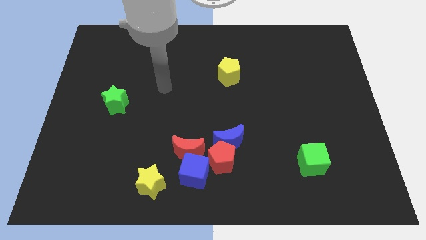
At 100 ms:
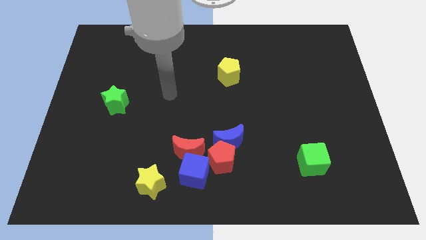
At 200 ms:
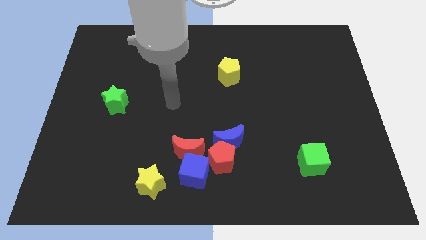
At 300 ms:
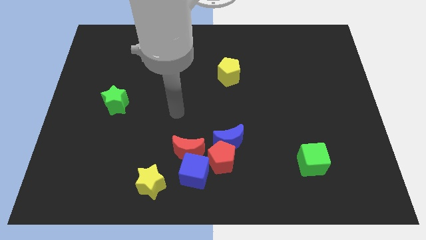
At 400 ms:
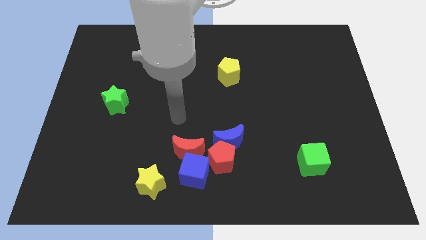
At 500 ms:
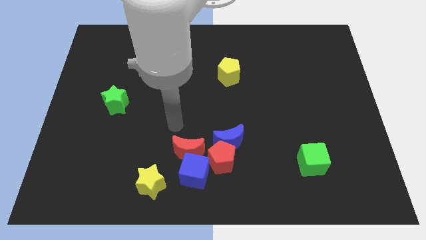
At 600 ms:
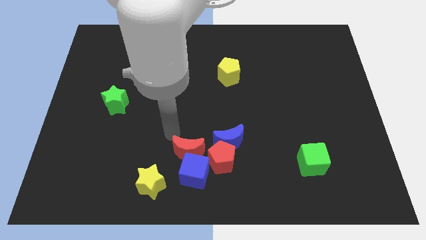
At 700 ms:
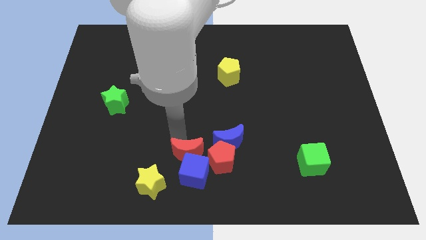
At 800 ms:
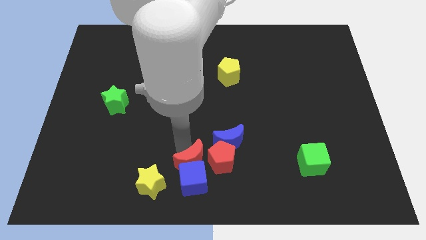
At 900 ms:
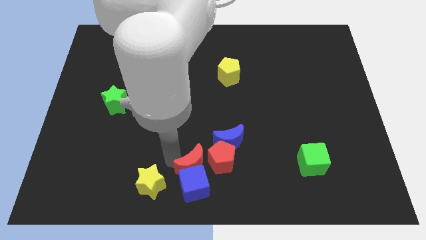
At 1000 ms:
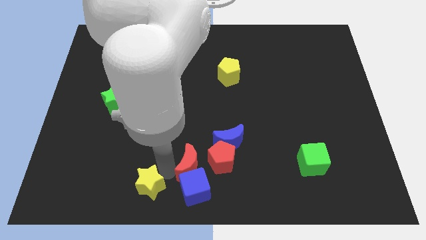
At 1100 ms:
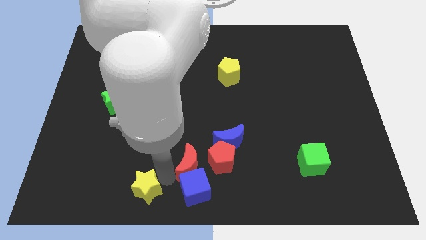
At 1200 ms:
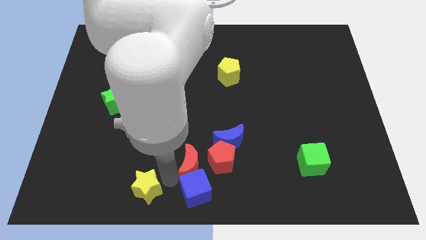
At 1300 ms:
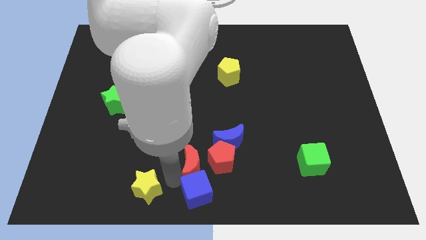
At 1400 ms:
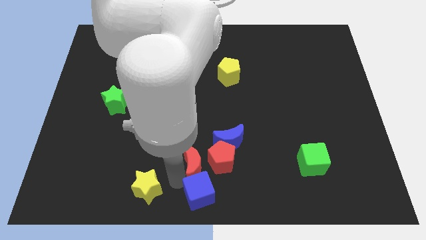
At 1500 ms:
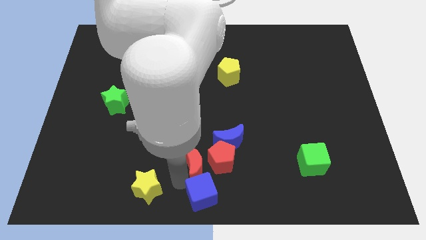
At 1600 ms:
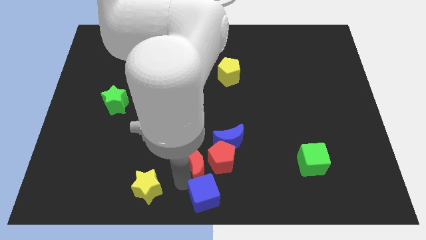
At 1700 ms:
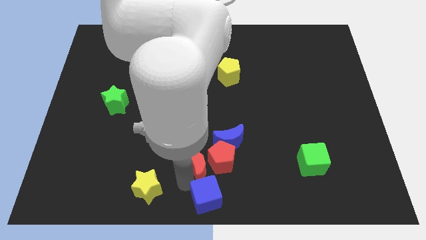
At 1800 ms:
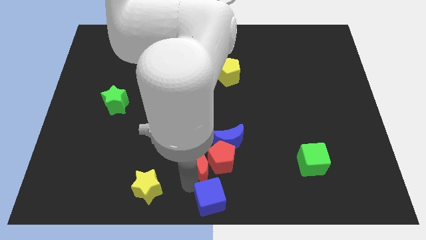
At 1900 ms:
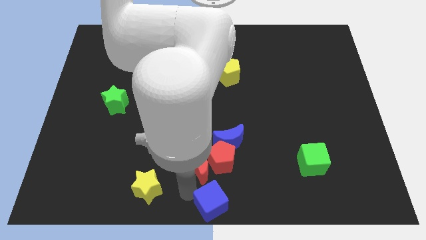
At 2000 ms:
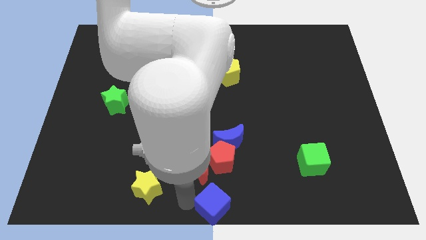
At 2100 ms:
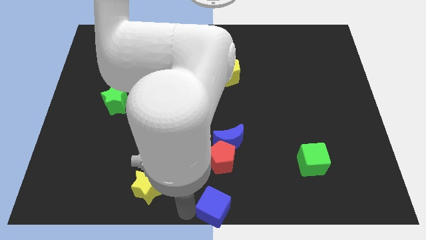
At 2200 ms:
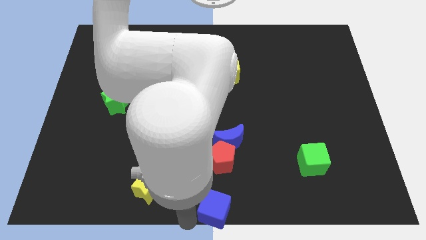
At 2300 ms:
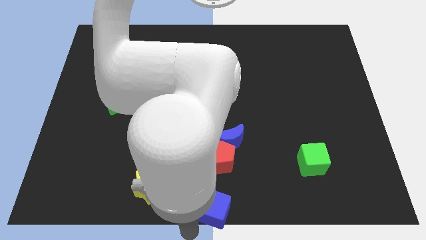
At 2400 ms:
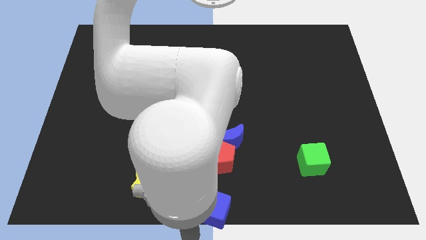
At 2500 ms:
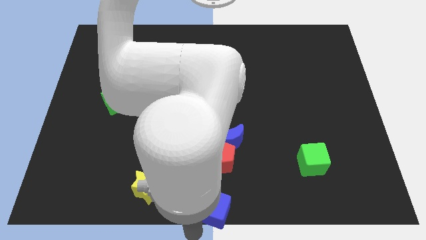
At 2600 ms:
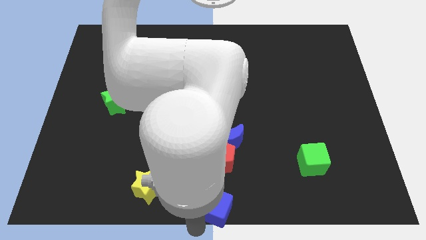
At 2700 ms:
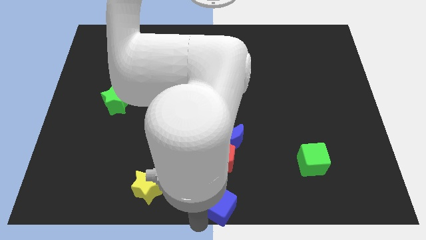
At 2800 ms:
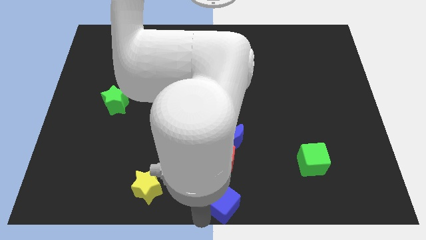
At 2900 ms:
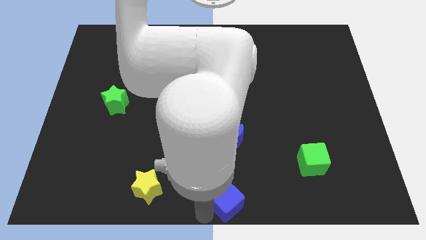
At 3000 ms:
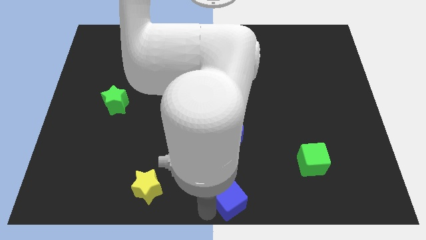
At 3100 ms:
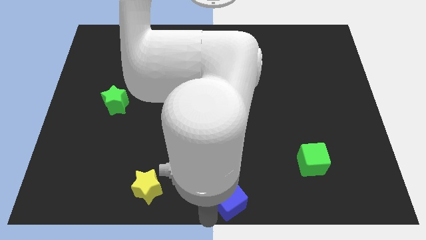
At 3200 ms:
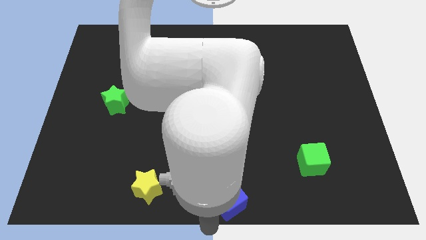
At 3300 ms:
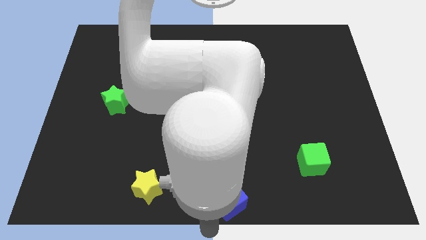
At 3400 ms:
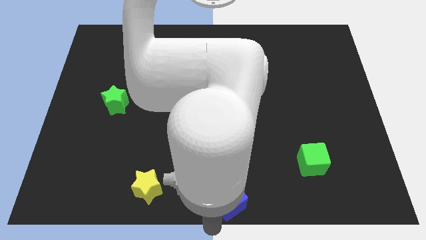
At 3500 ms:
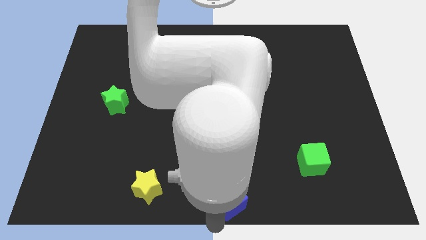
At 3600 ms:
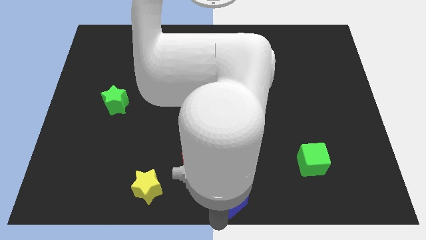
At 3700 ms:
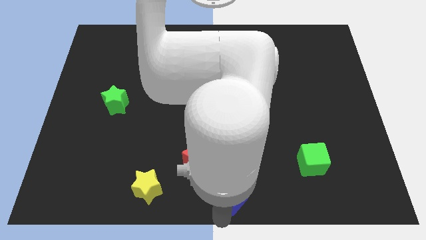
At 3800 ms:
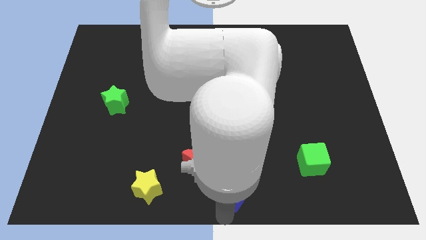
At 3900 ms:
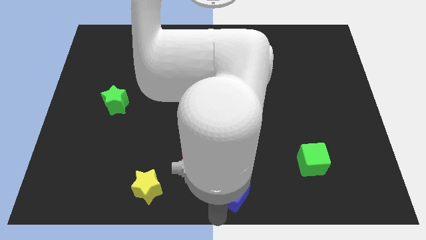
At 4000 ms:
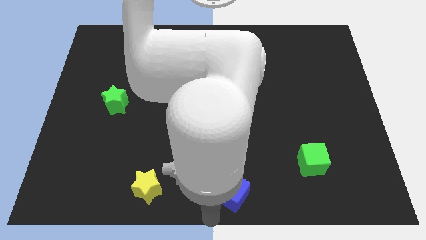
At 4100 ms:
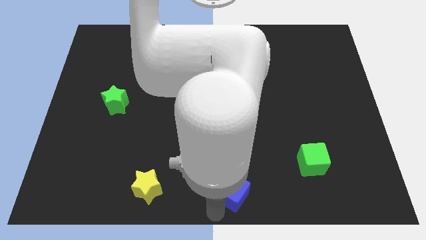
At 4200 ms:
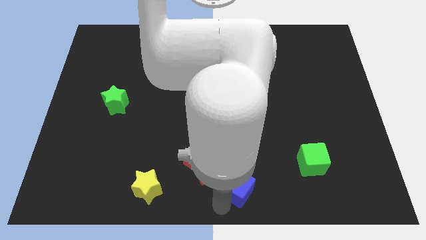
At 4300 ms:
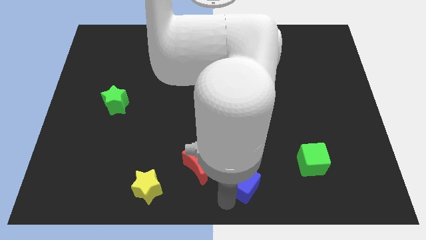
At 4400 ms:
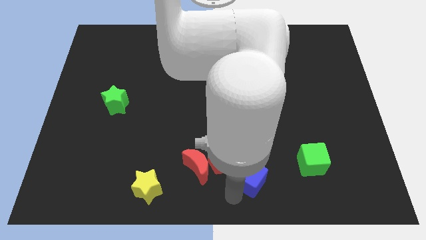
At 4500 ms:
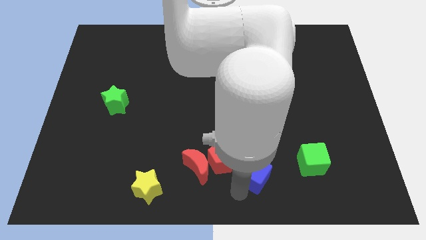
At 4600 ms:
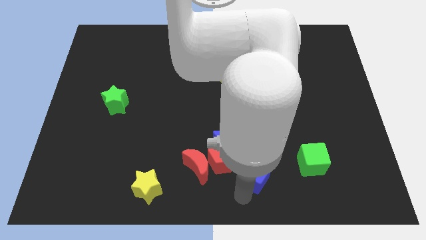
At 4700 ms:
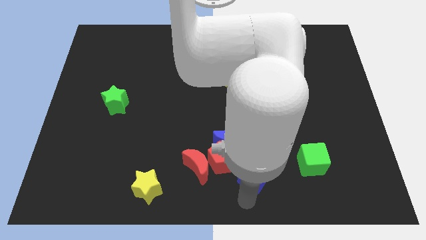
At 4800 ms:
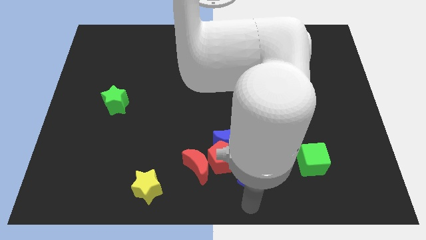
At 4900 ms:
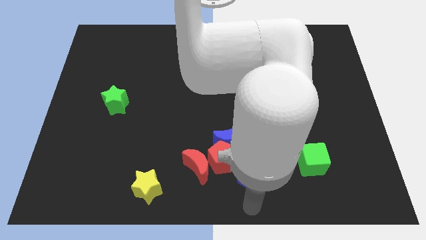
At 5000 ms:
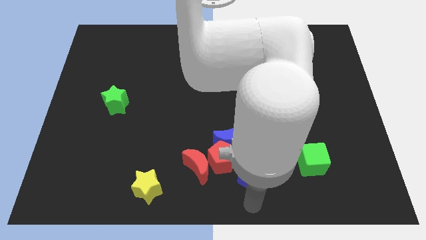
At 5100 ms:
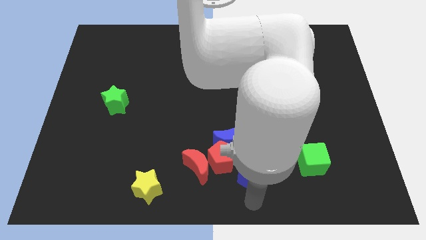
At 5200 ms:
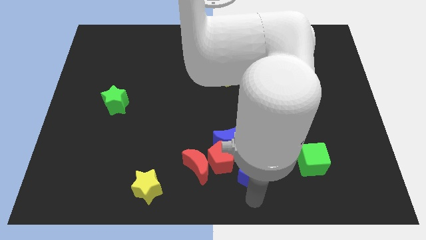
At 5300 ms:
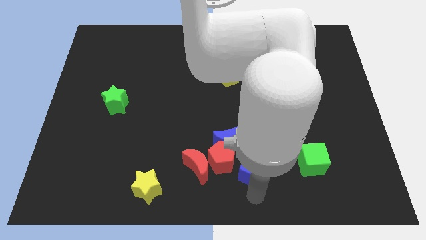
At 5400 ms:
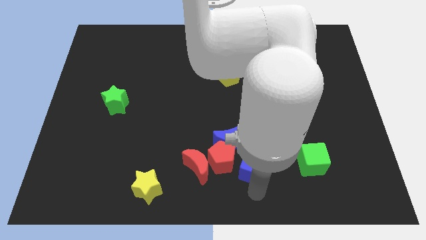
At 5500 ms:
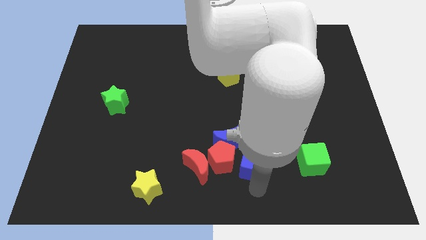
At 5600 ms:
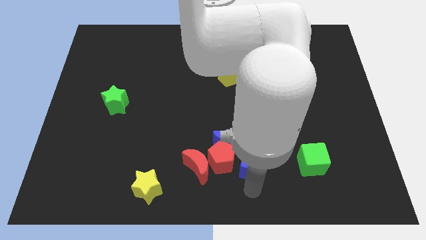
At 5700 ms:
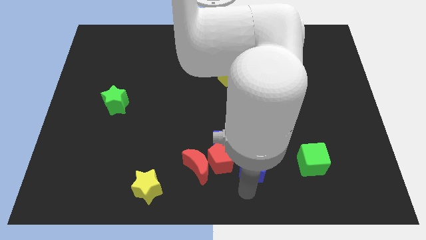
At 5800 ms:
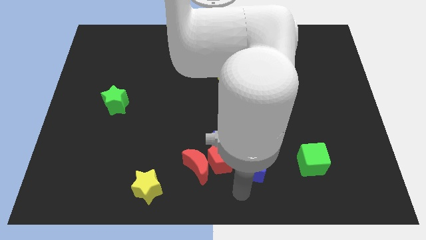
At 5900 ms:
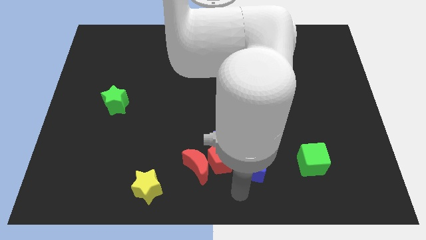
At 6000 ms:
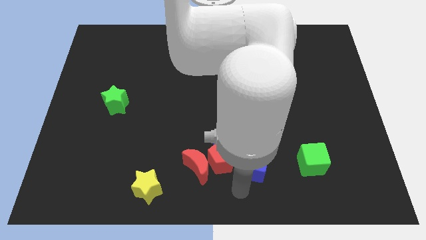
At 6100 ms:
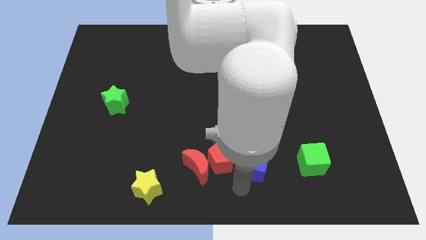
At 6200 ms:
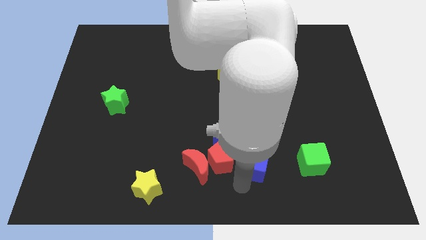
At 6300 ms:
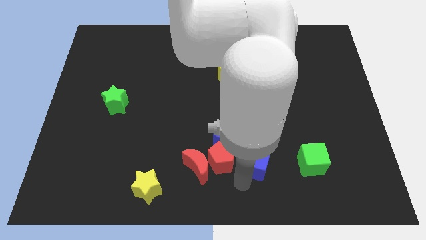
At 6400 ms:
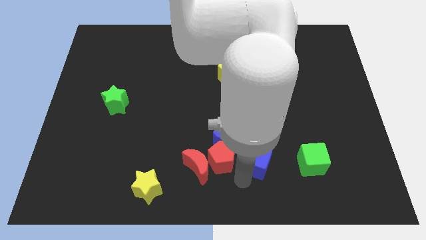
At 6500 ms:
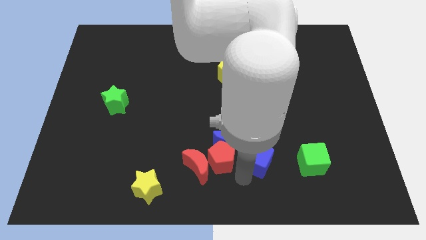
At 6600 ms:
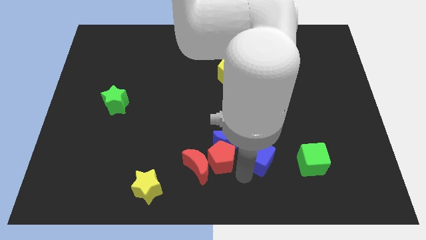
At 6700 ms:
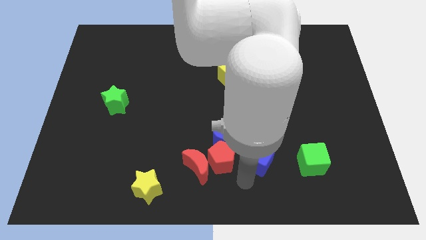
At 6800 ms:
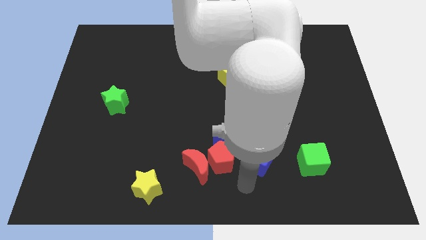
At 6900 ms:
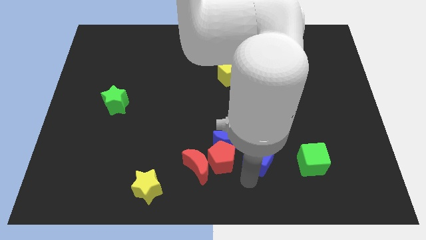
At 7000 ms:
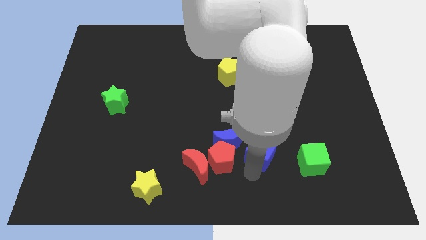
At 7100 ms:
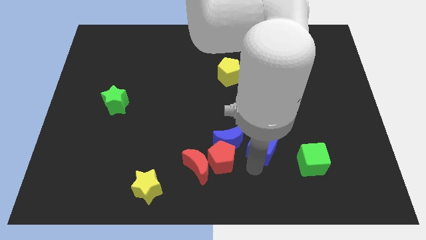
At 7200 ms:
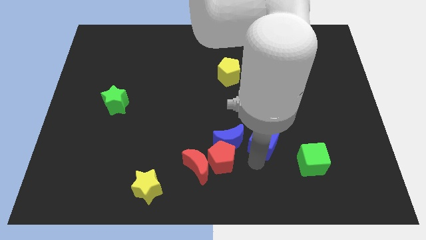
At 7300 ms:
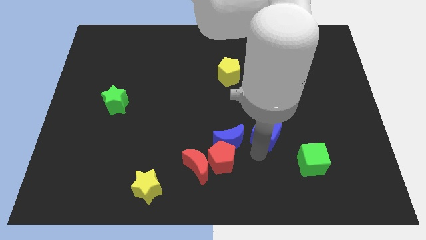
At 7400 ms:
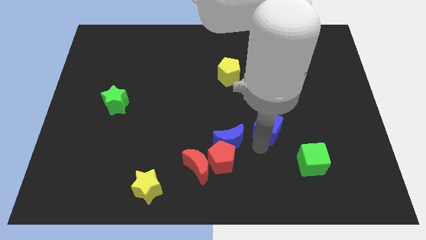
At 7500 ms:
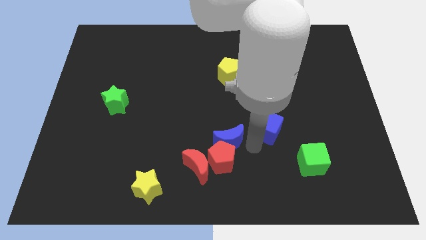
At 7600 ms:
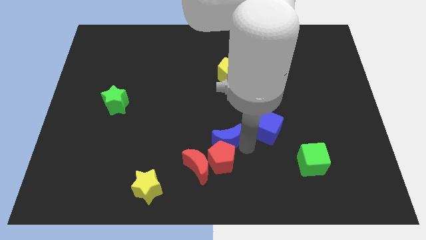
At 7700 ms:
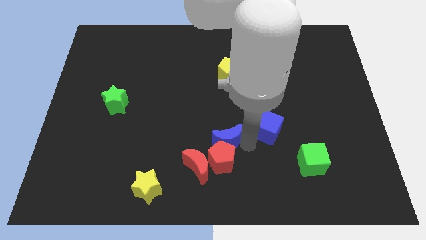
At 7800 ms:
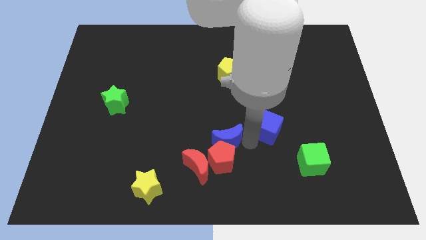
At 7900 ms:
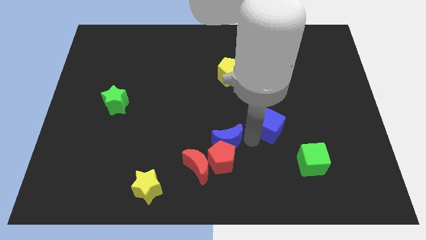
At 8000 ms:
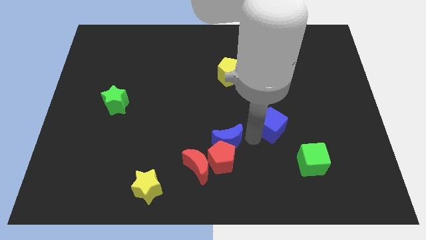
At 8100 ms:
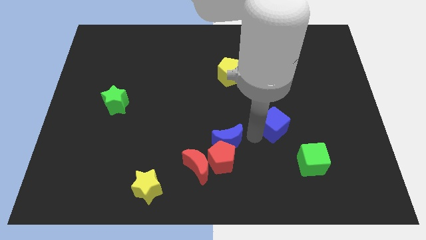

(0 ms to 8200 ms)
move the blue cube upwards and then to the right
